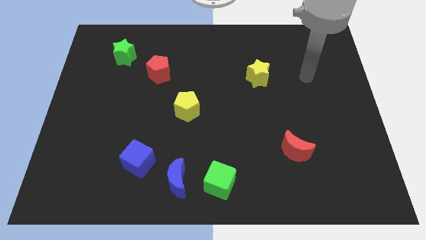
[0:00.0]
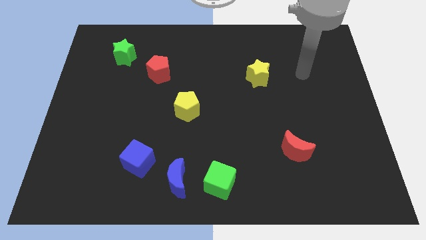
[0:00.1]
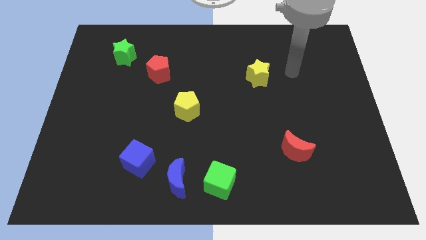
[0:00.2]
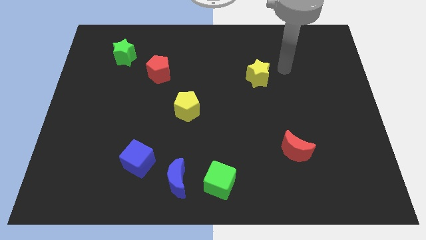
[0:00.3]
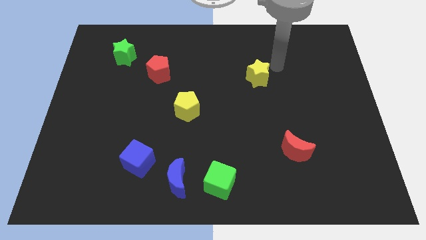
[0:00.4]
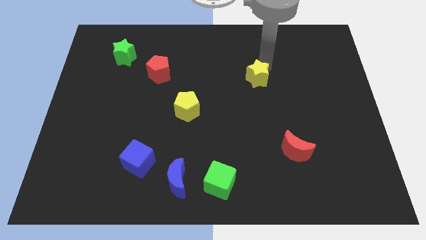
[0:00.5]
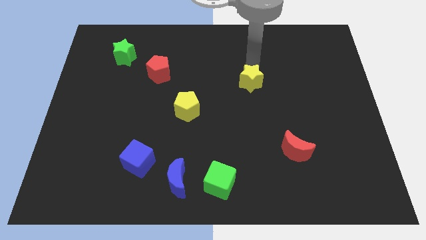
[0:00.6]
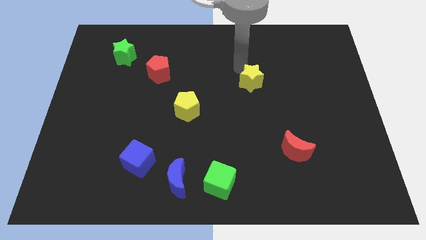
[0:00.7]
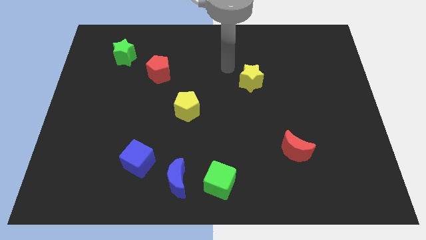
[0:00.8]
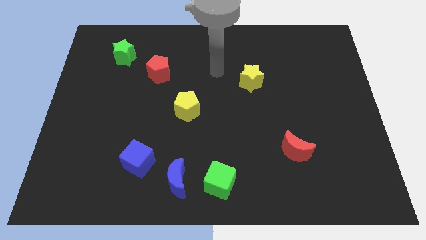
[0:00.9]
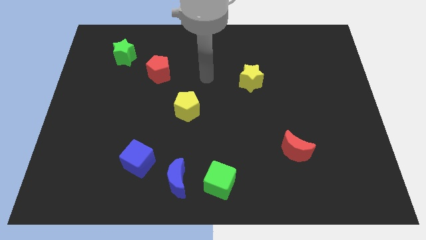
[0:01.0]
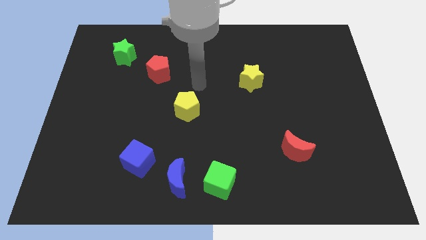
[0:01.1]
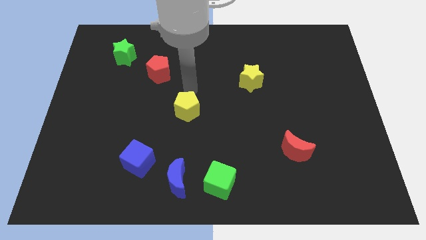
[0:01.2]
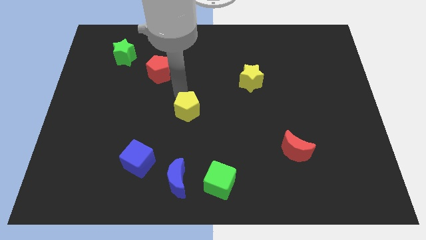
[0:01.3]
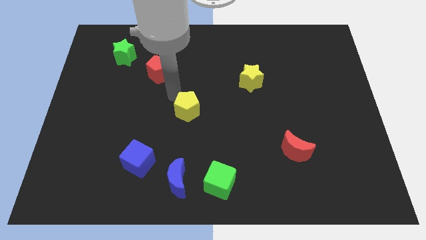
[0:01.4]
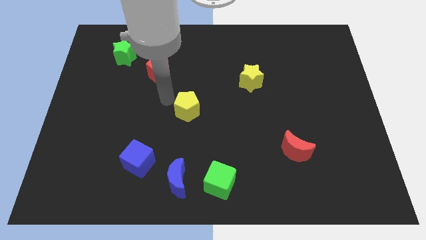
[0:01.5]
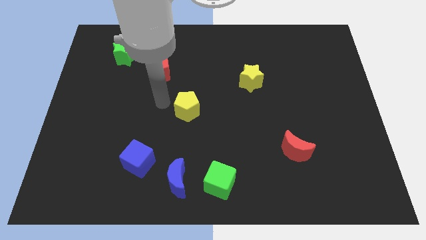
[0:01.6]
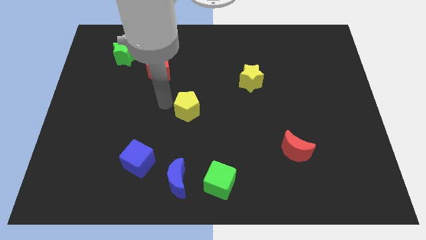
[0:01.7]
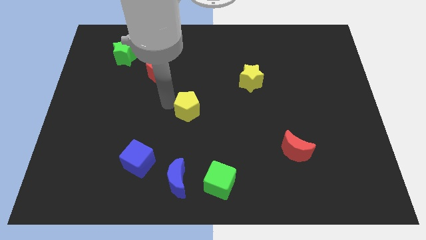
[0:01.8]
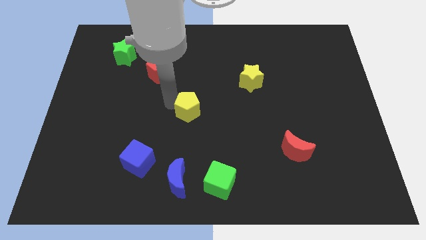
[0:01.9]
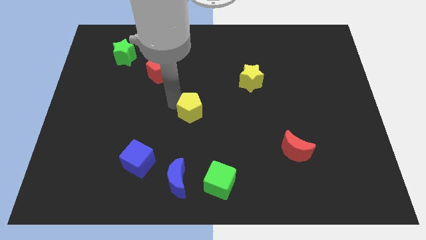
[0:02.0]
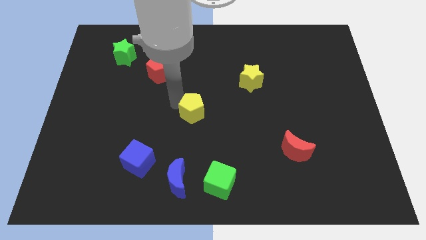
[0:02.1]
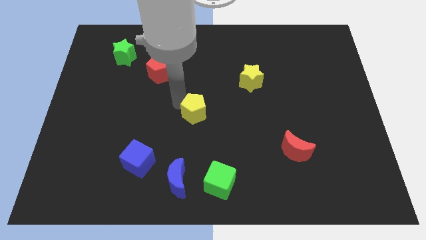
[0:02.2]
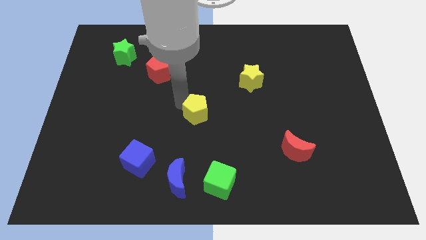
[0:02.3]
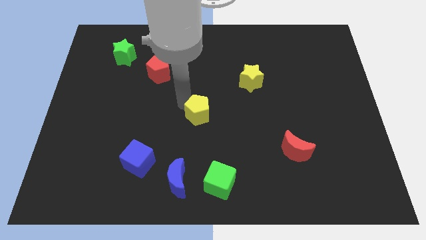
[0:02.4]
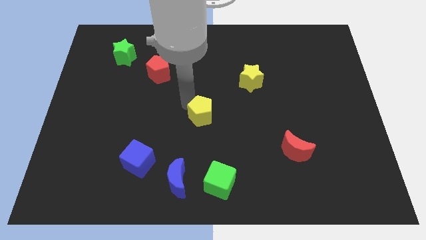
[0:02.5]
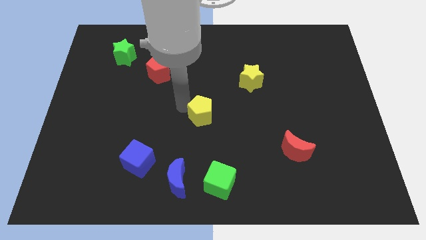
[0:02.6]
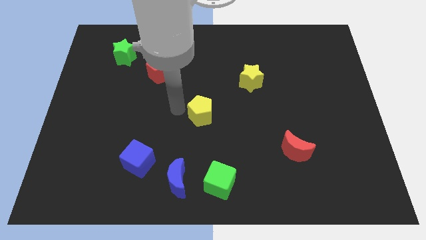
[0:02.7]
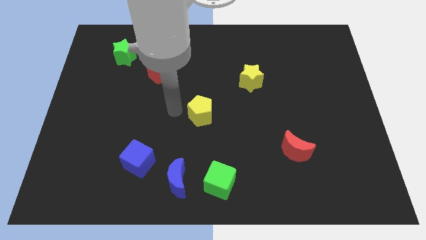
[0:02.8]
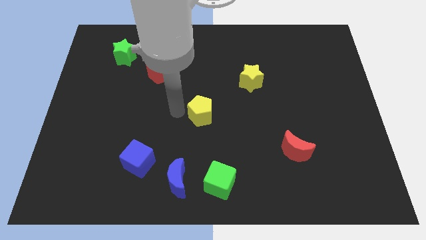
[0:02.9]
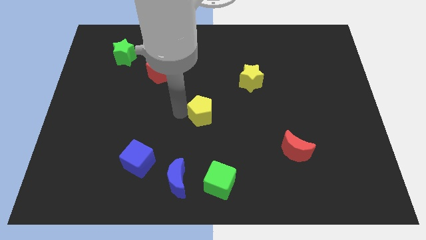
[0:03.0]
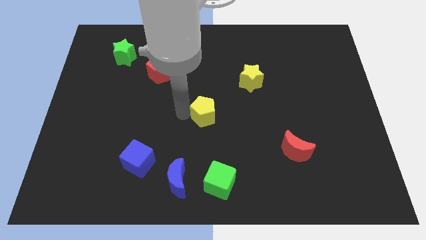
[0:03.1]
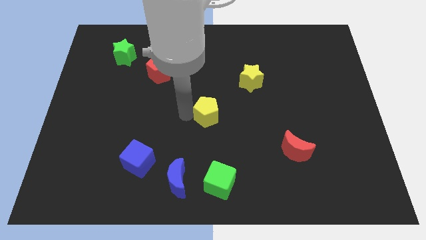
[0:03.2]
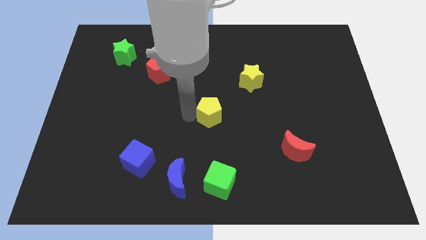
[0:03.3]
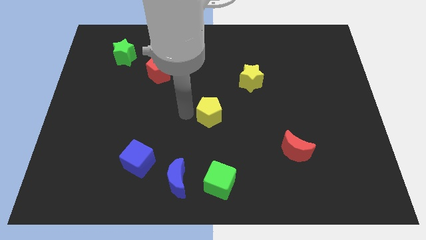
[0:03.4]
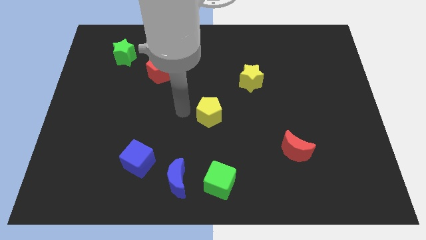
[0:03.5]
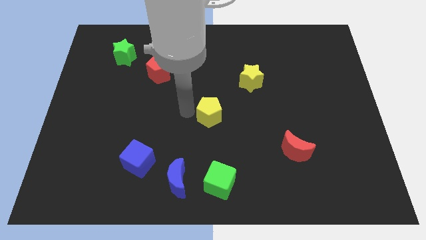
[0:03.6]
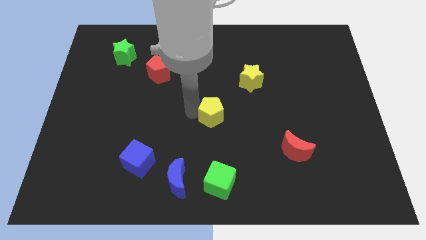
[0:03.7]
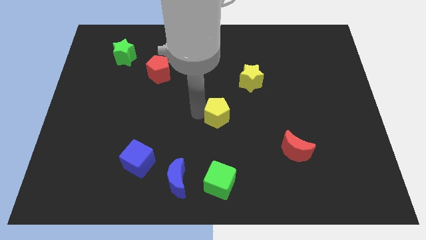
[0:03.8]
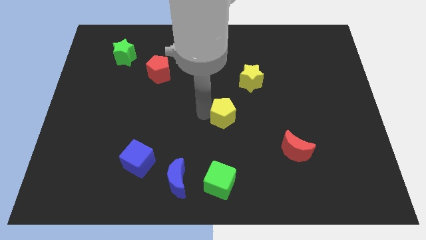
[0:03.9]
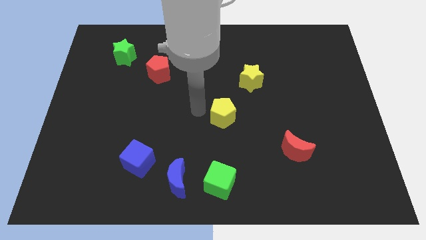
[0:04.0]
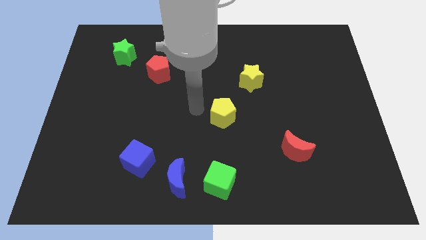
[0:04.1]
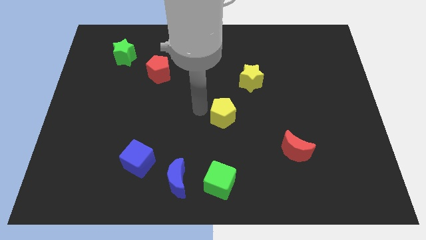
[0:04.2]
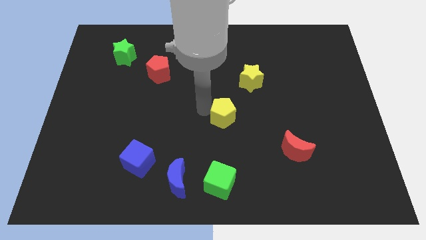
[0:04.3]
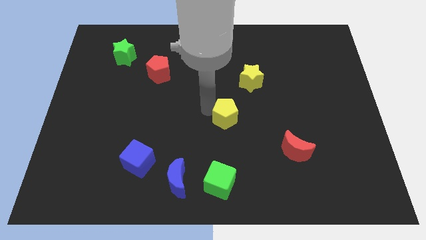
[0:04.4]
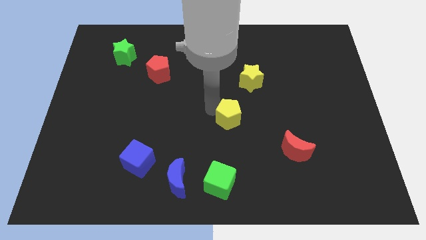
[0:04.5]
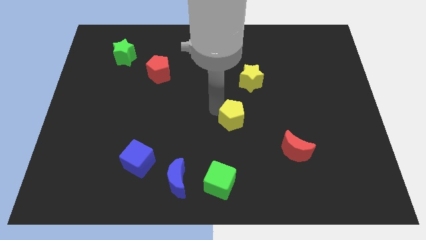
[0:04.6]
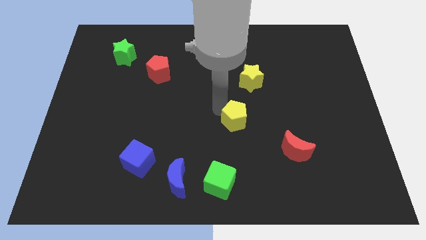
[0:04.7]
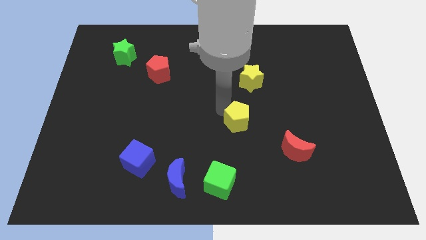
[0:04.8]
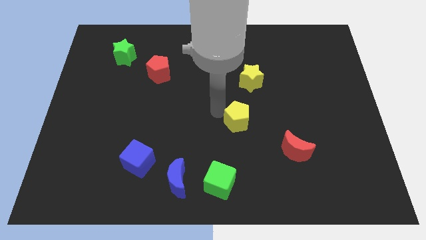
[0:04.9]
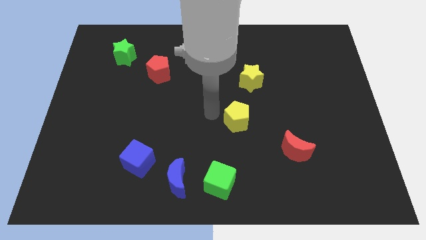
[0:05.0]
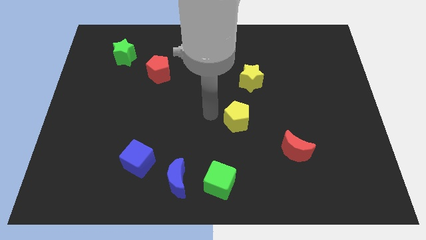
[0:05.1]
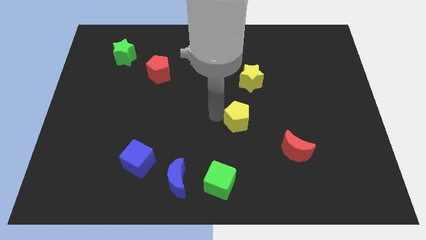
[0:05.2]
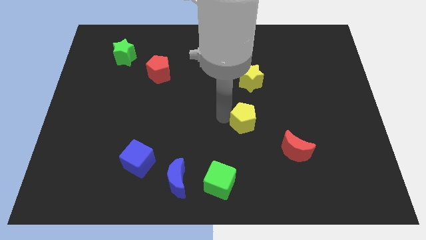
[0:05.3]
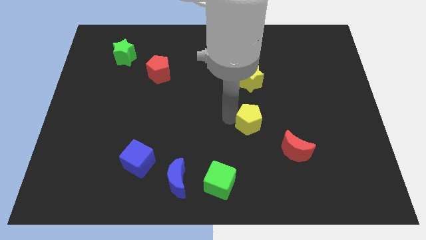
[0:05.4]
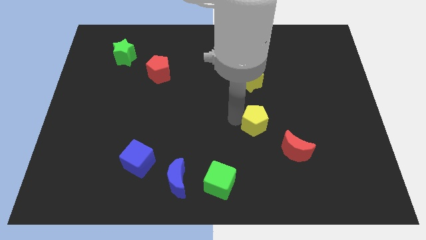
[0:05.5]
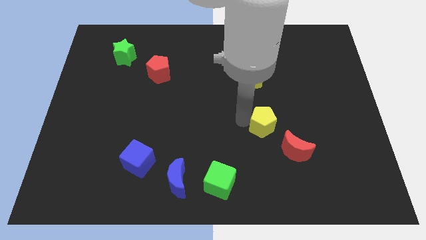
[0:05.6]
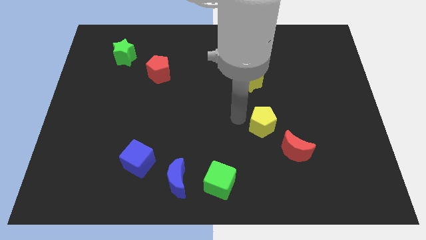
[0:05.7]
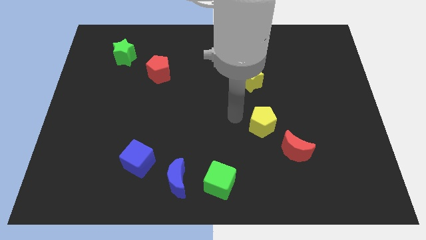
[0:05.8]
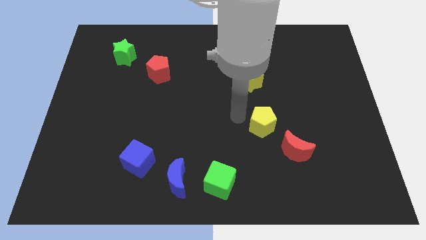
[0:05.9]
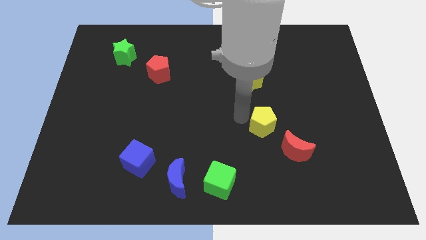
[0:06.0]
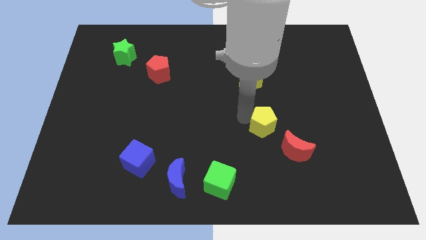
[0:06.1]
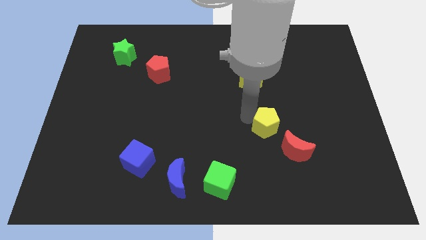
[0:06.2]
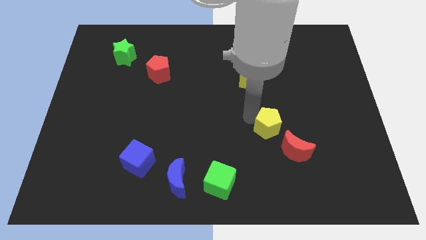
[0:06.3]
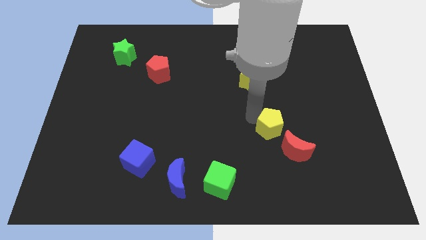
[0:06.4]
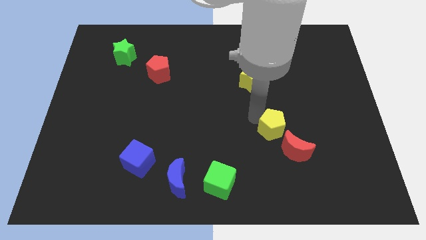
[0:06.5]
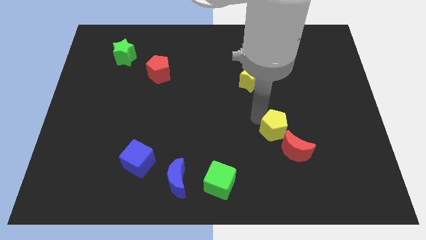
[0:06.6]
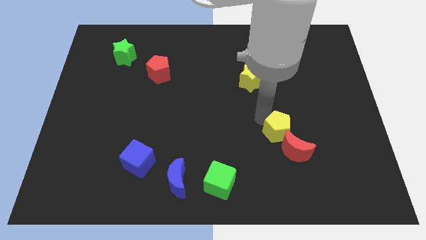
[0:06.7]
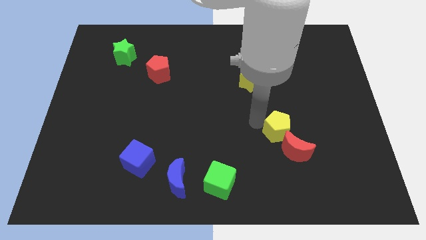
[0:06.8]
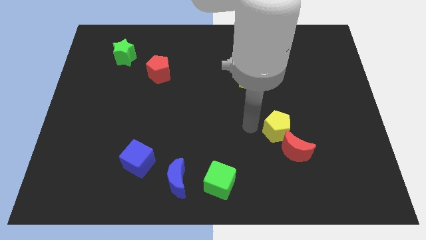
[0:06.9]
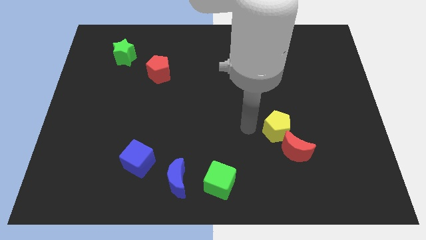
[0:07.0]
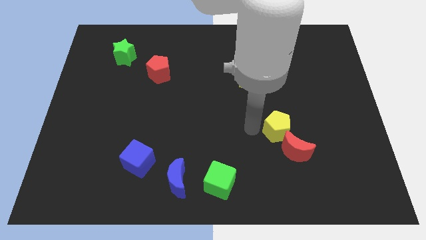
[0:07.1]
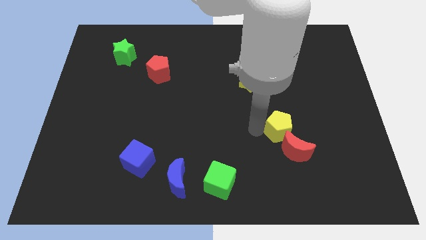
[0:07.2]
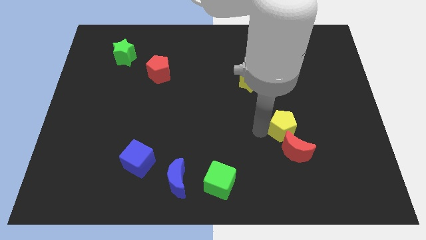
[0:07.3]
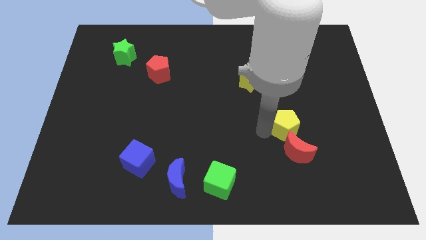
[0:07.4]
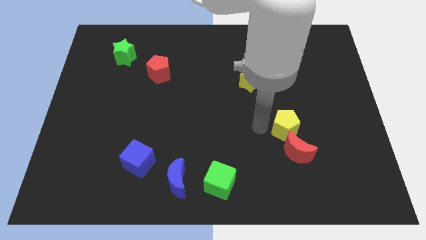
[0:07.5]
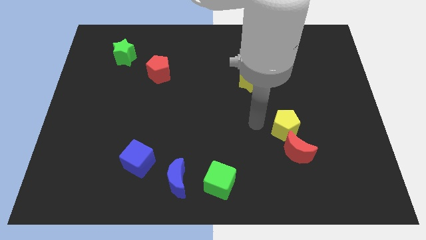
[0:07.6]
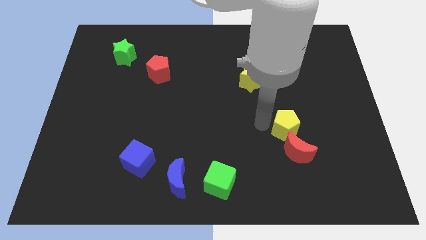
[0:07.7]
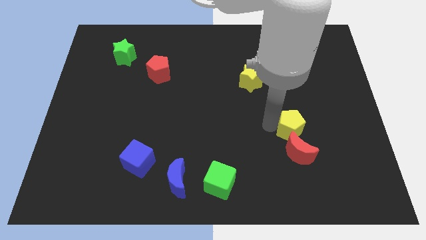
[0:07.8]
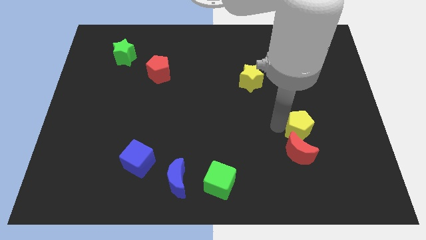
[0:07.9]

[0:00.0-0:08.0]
move the yellow pentagon to the top right of the red moon
